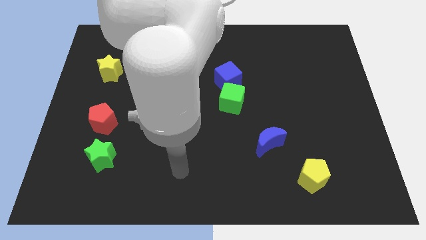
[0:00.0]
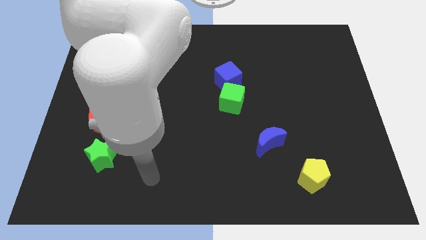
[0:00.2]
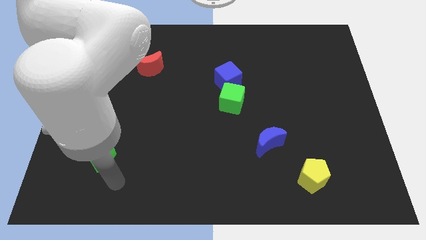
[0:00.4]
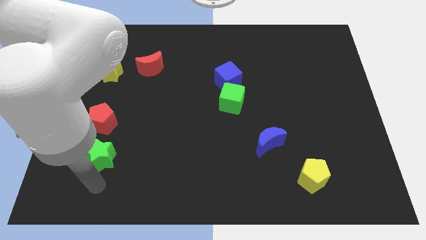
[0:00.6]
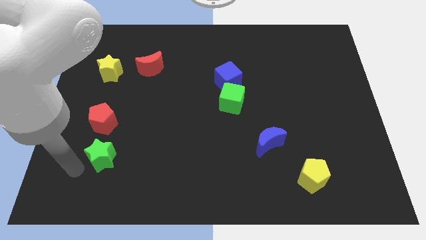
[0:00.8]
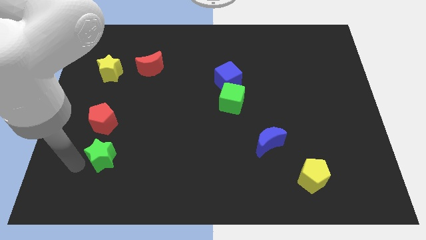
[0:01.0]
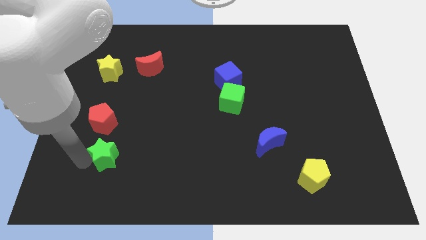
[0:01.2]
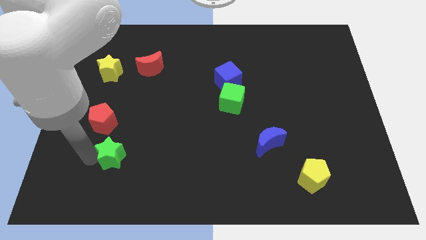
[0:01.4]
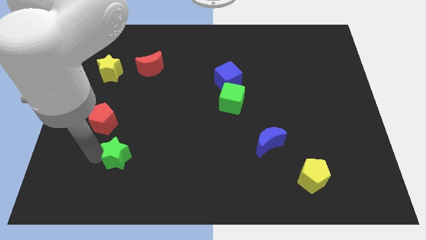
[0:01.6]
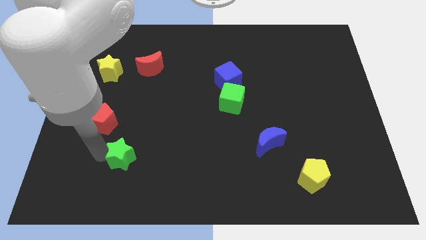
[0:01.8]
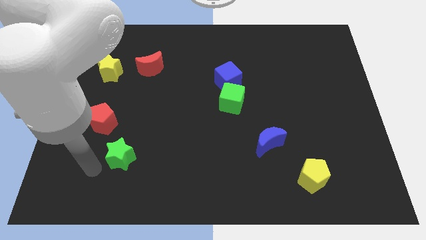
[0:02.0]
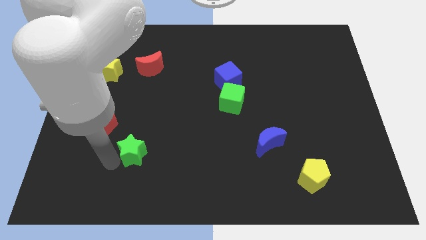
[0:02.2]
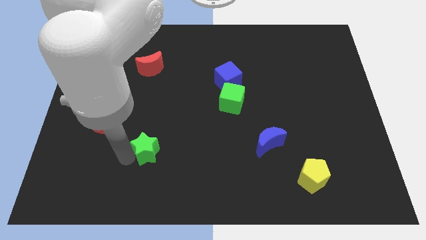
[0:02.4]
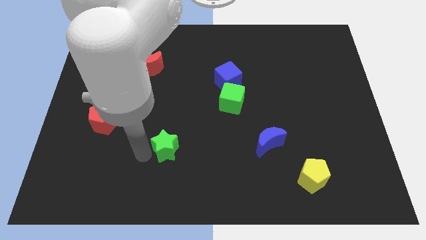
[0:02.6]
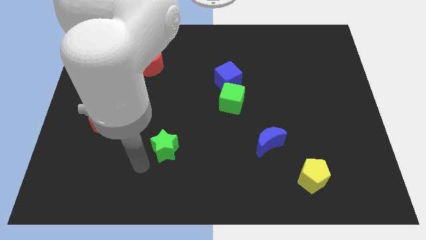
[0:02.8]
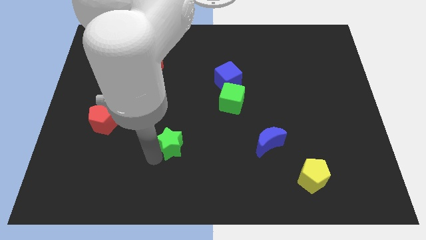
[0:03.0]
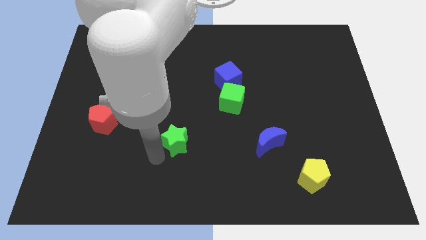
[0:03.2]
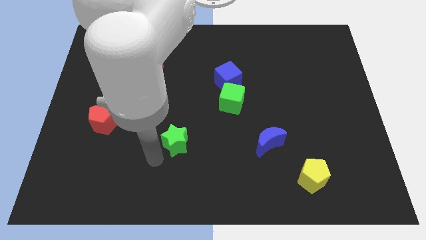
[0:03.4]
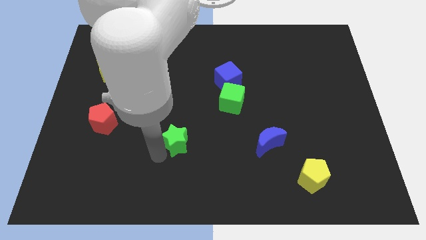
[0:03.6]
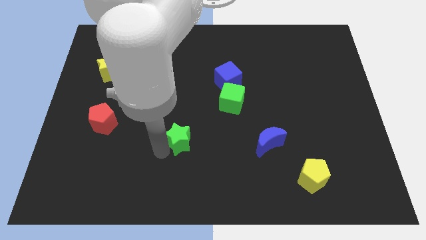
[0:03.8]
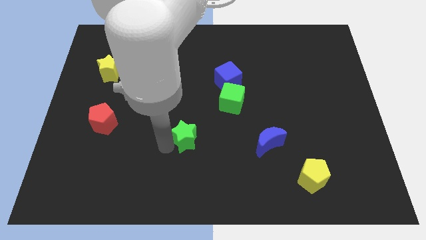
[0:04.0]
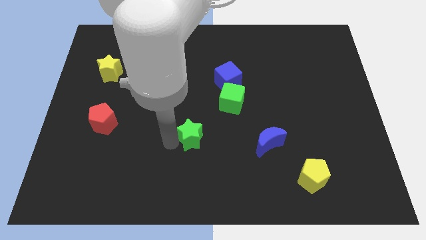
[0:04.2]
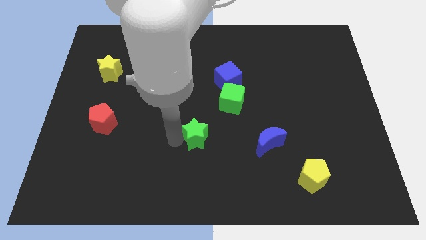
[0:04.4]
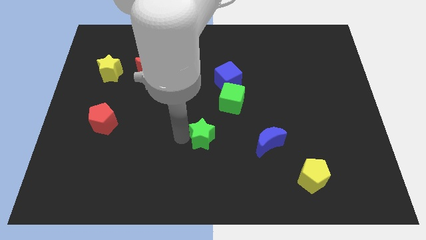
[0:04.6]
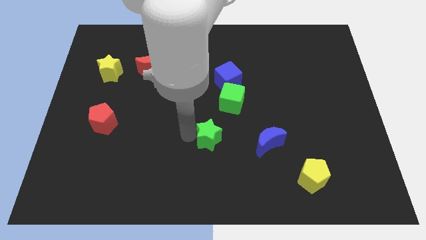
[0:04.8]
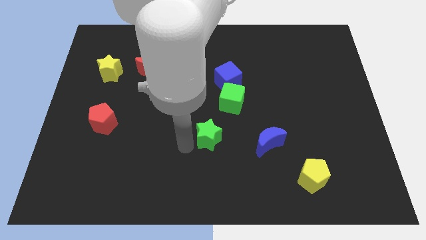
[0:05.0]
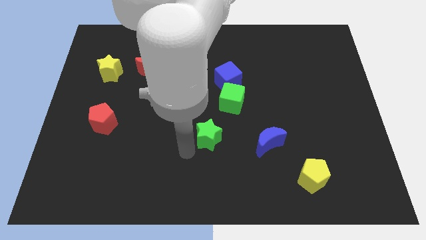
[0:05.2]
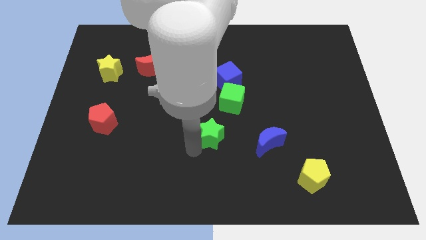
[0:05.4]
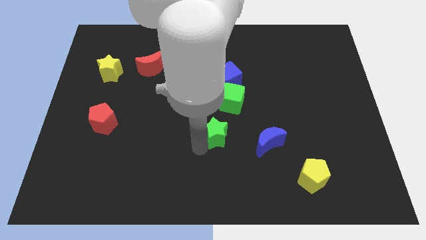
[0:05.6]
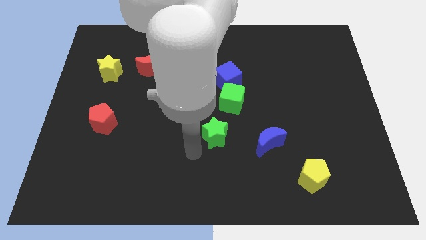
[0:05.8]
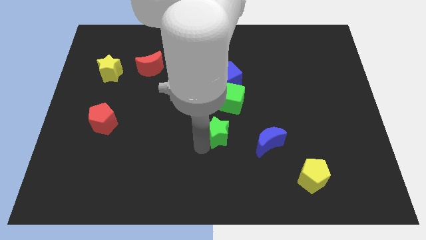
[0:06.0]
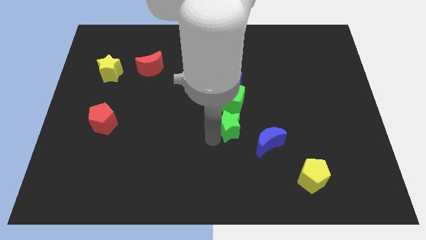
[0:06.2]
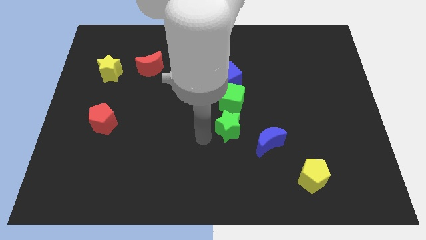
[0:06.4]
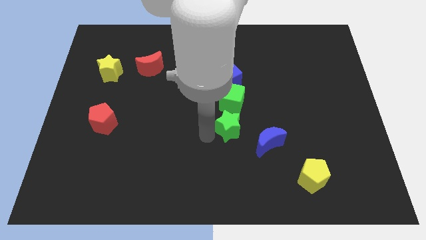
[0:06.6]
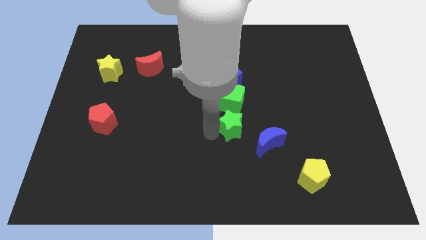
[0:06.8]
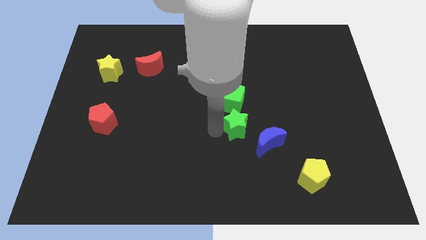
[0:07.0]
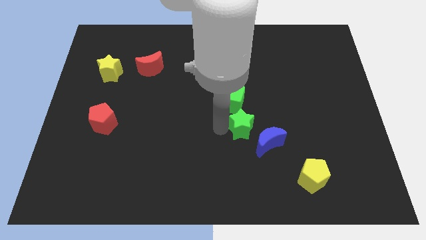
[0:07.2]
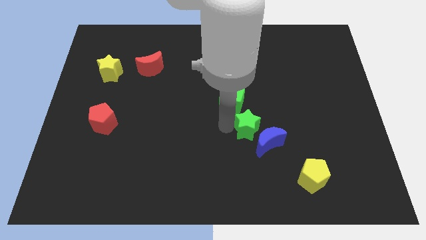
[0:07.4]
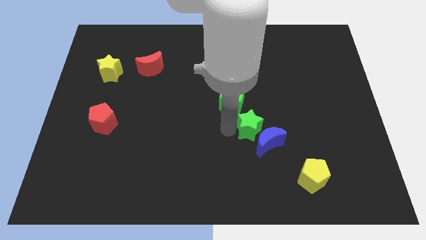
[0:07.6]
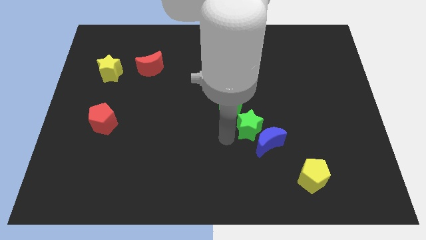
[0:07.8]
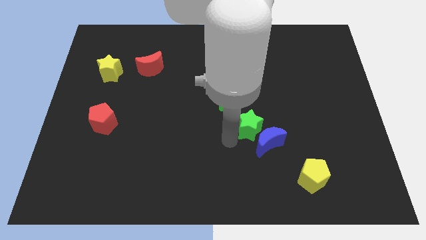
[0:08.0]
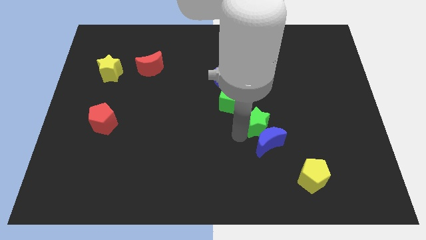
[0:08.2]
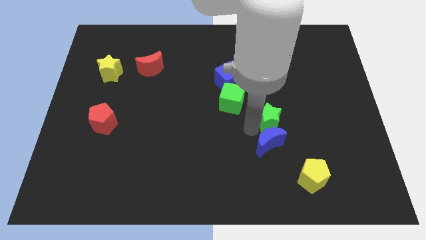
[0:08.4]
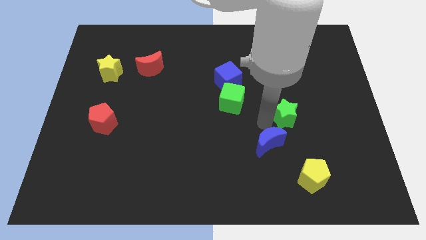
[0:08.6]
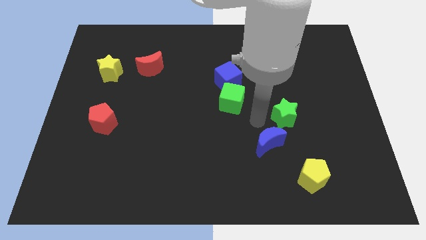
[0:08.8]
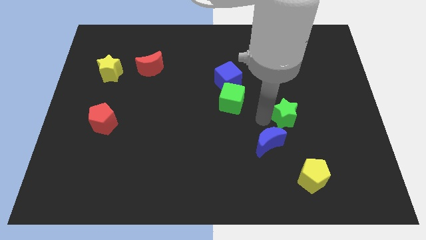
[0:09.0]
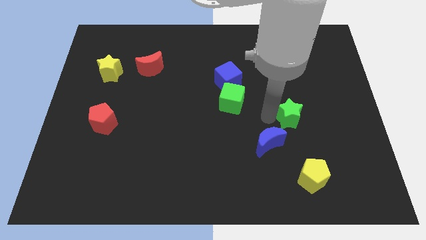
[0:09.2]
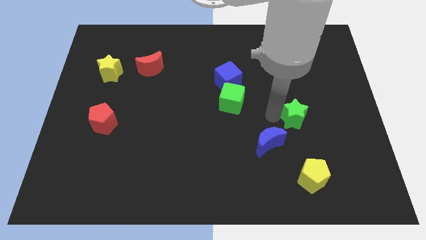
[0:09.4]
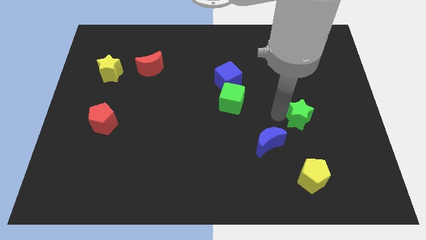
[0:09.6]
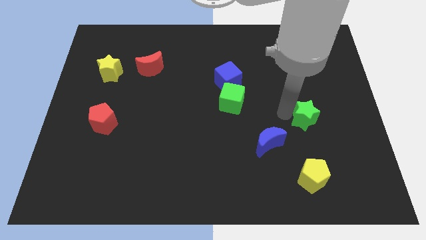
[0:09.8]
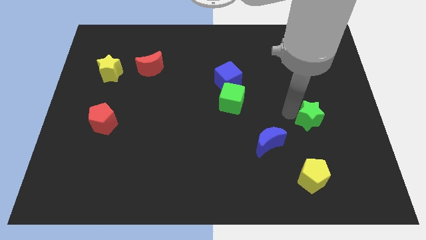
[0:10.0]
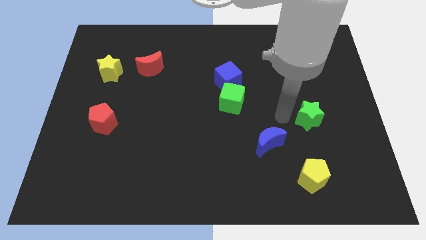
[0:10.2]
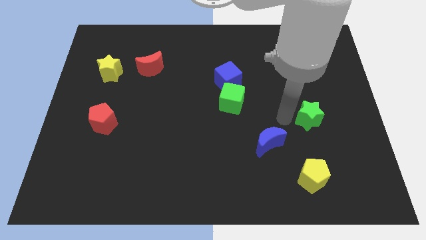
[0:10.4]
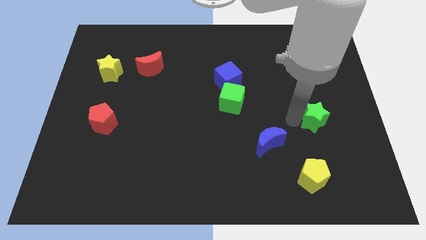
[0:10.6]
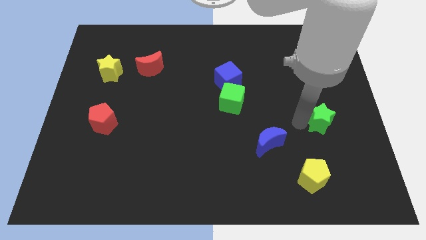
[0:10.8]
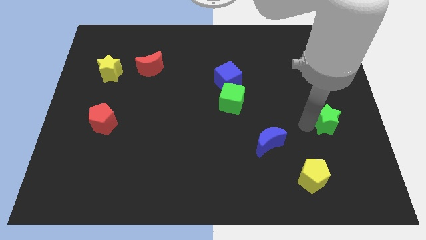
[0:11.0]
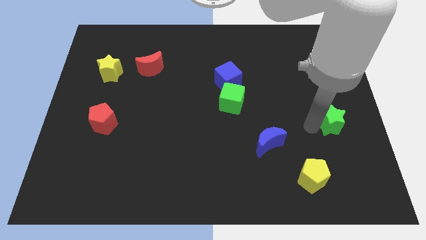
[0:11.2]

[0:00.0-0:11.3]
move the green star to the right side
